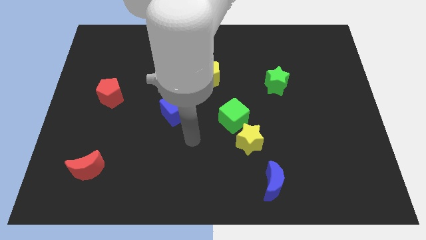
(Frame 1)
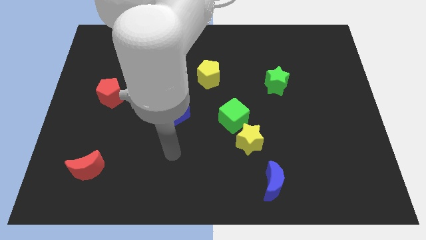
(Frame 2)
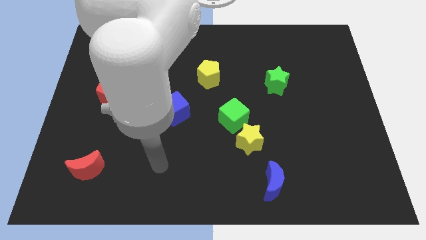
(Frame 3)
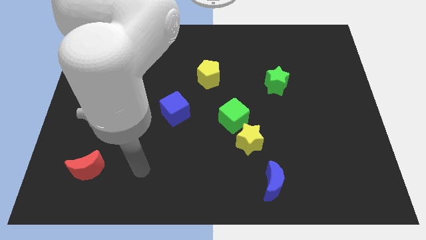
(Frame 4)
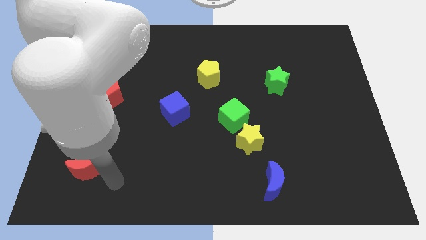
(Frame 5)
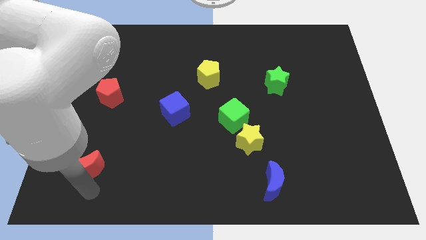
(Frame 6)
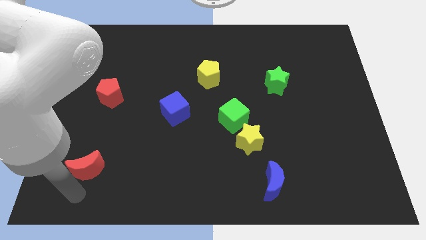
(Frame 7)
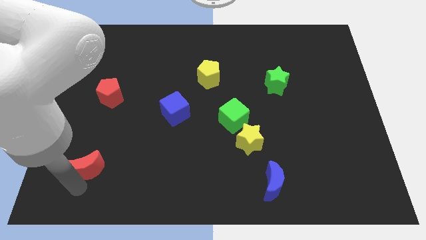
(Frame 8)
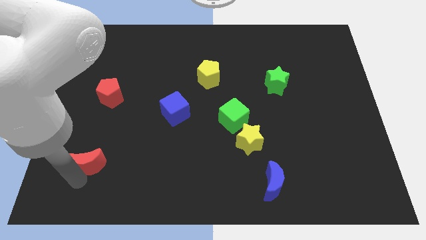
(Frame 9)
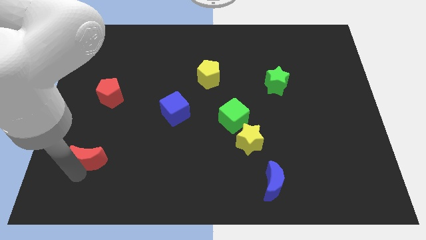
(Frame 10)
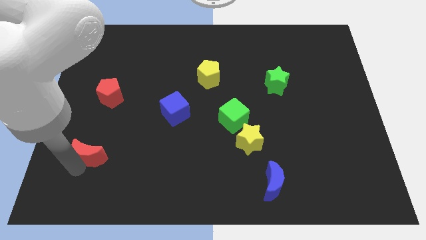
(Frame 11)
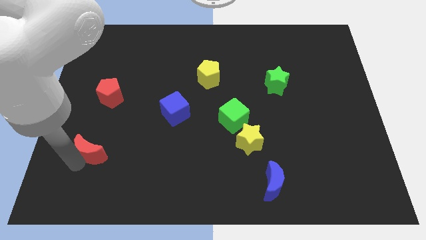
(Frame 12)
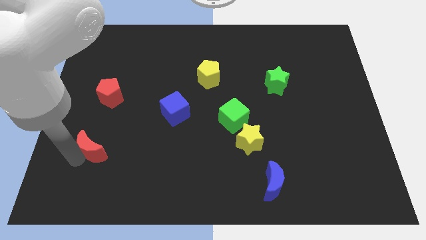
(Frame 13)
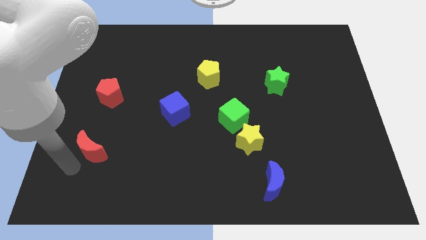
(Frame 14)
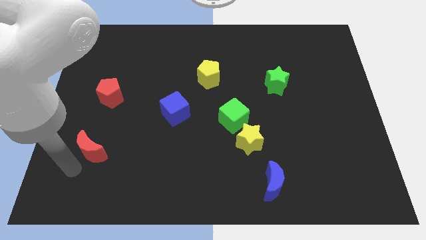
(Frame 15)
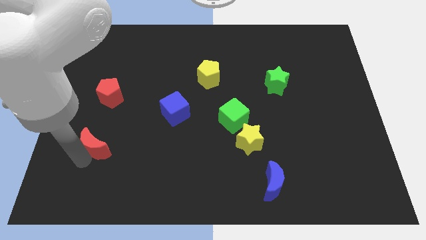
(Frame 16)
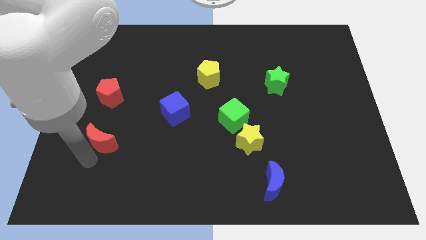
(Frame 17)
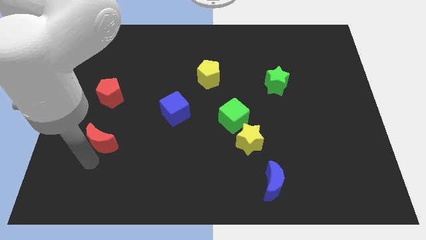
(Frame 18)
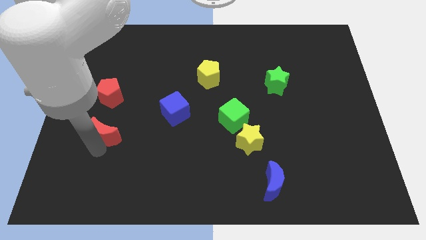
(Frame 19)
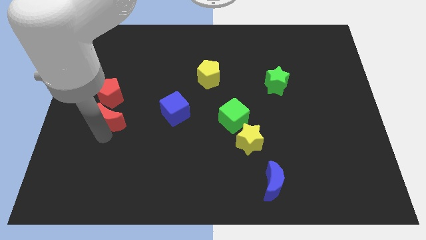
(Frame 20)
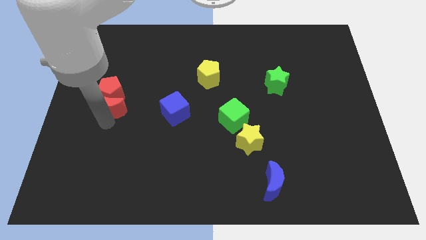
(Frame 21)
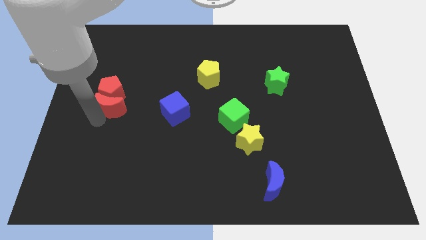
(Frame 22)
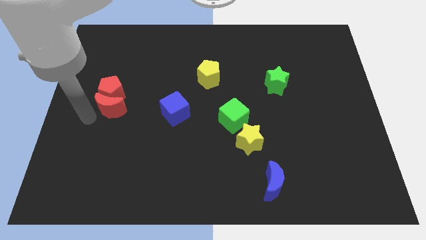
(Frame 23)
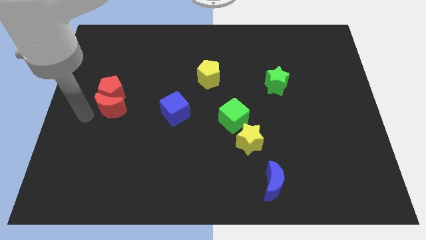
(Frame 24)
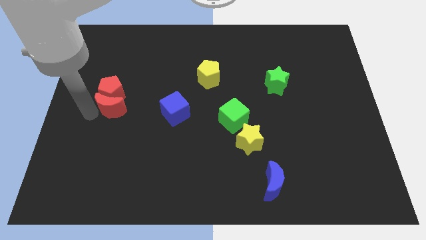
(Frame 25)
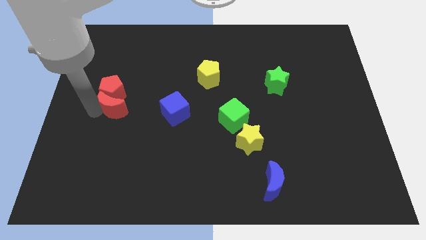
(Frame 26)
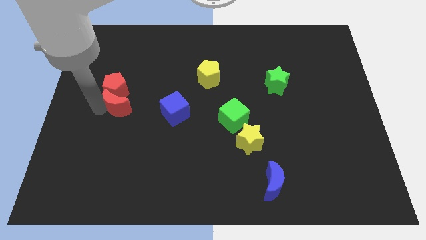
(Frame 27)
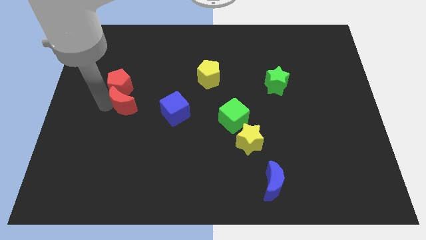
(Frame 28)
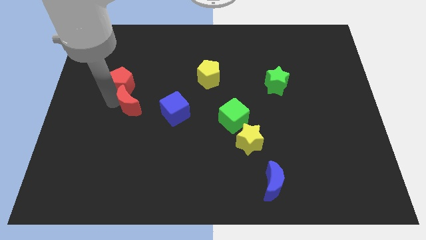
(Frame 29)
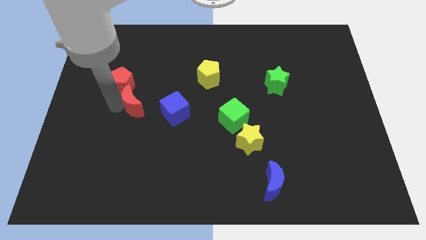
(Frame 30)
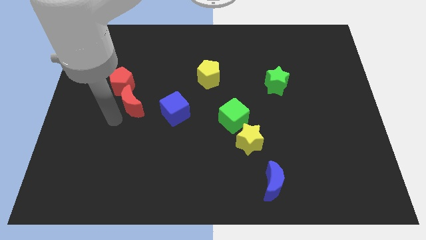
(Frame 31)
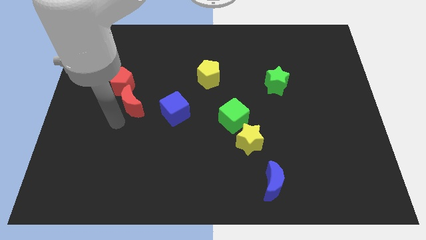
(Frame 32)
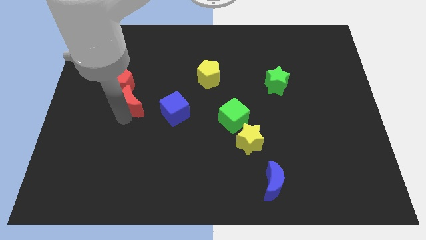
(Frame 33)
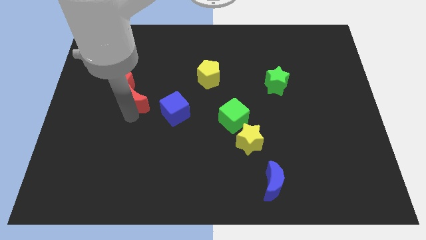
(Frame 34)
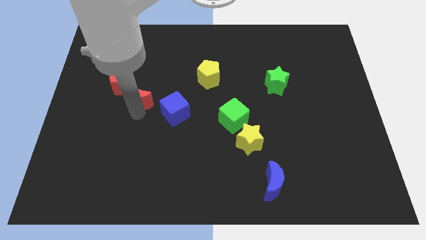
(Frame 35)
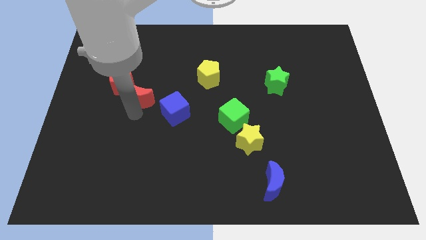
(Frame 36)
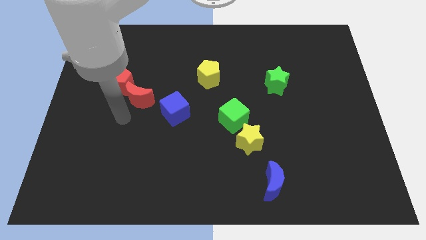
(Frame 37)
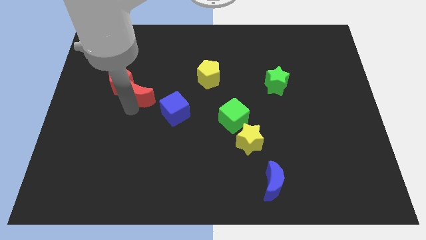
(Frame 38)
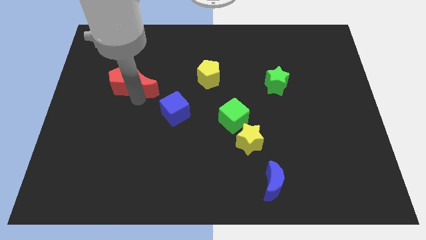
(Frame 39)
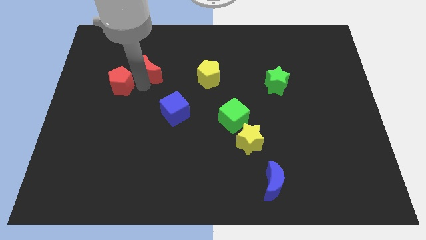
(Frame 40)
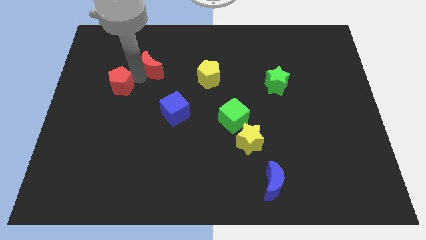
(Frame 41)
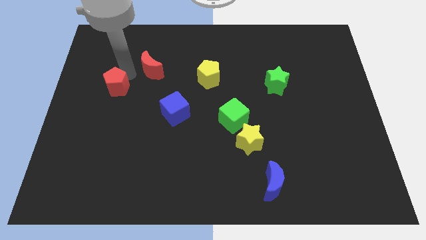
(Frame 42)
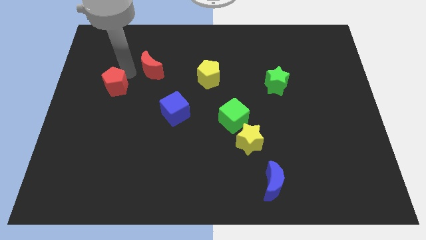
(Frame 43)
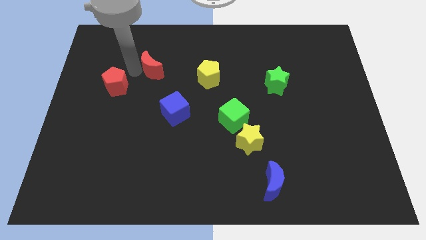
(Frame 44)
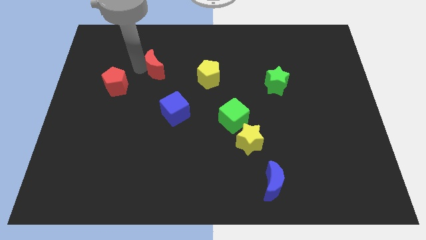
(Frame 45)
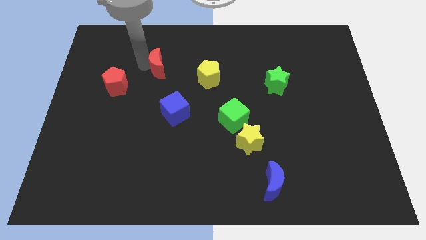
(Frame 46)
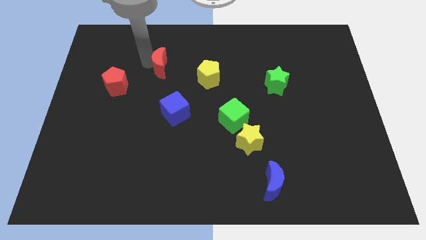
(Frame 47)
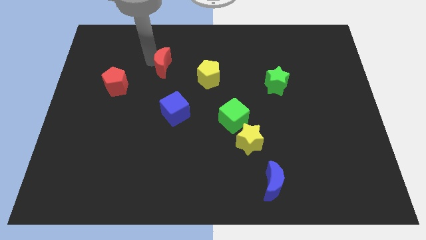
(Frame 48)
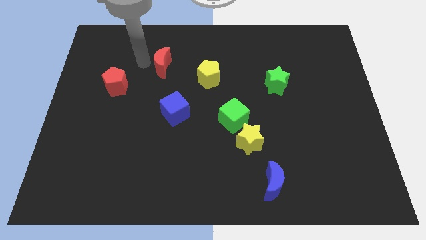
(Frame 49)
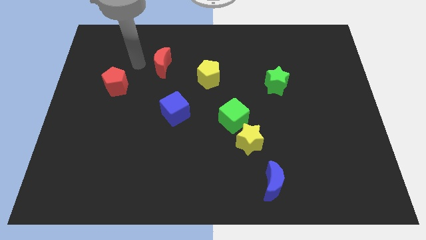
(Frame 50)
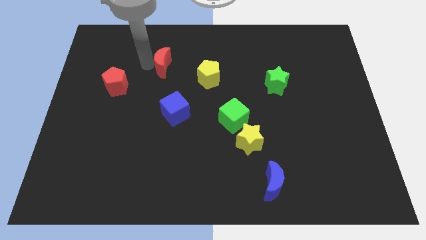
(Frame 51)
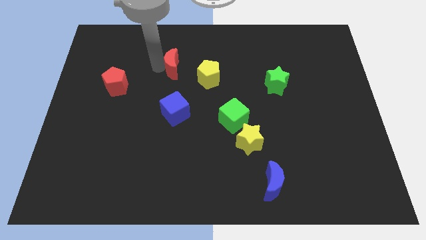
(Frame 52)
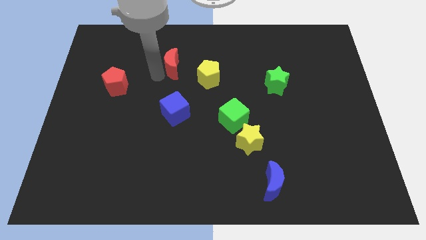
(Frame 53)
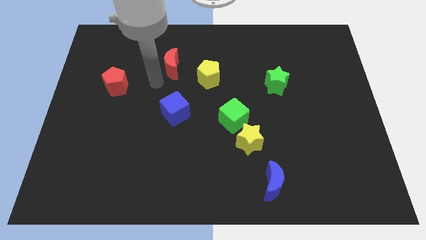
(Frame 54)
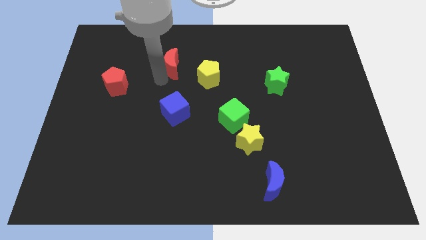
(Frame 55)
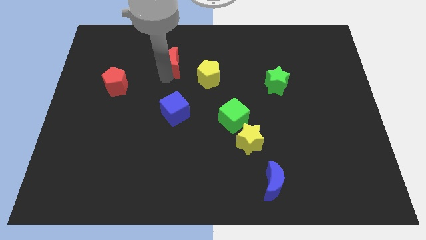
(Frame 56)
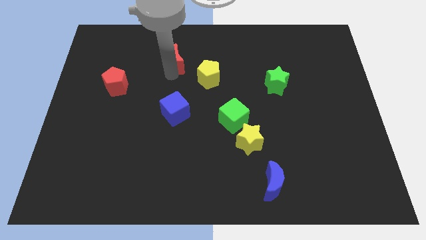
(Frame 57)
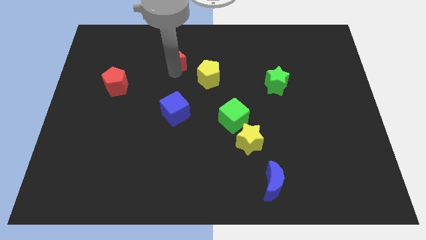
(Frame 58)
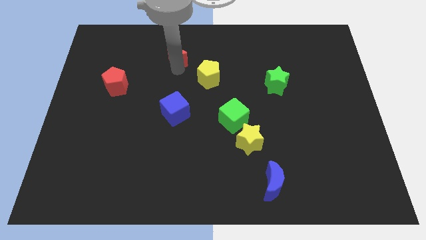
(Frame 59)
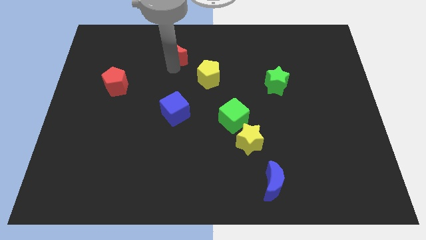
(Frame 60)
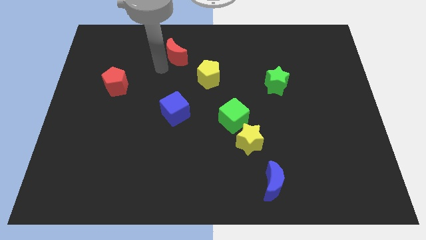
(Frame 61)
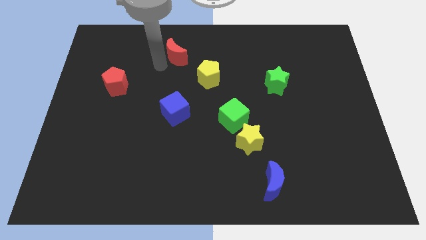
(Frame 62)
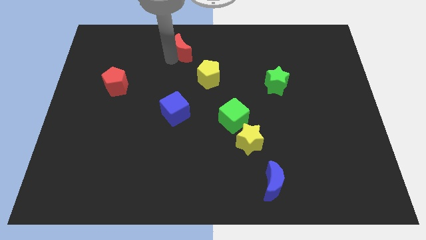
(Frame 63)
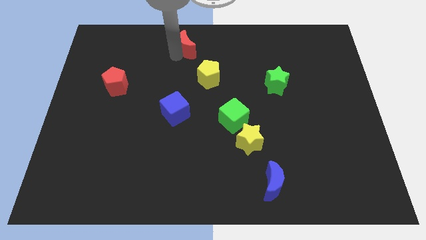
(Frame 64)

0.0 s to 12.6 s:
put the red moon to the top side
